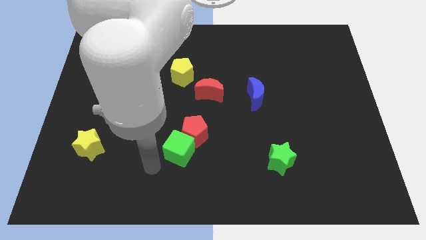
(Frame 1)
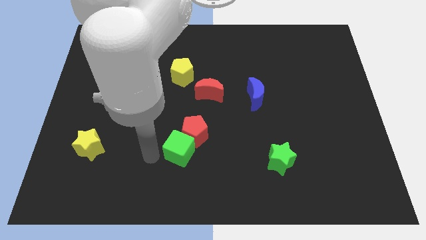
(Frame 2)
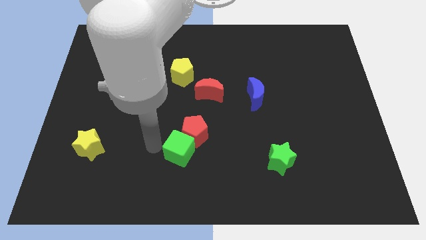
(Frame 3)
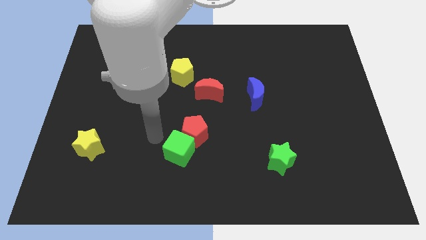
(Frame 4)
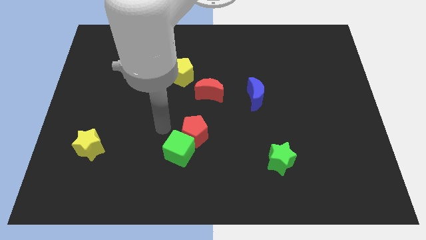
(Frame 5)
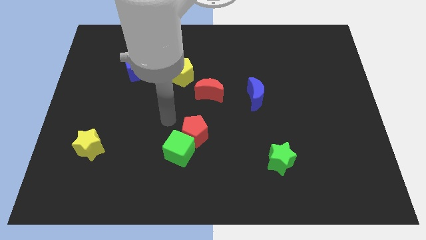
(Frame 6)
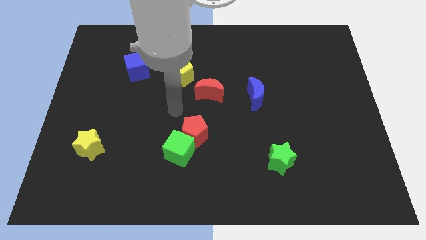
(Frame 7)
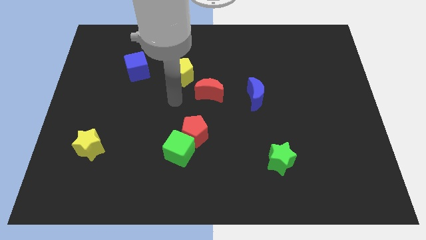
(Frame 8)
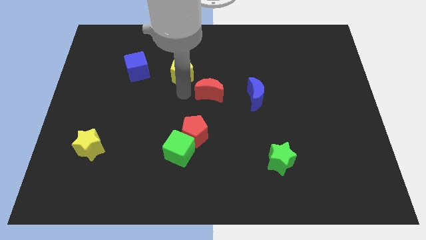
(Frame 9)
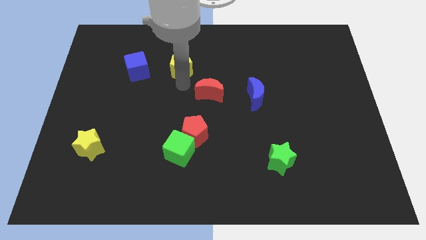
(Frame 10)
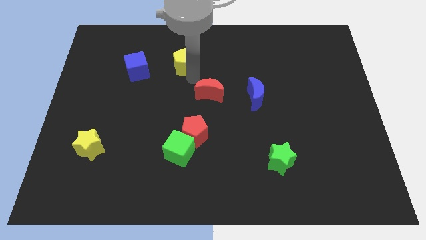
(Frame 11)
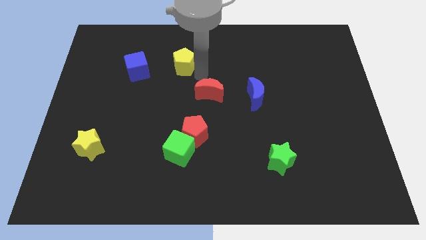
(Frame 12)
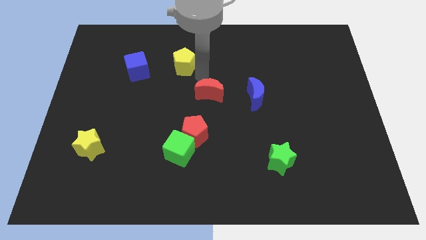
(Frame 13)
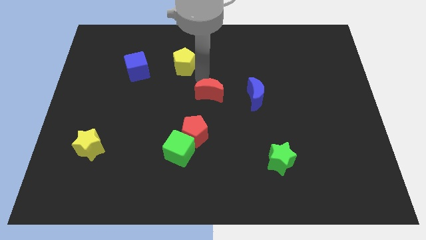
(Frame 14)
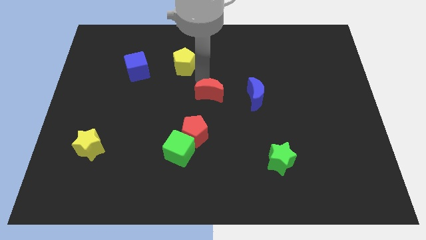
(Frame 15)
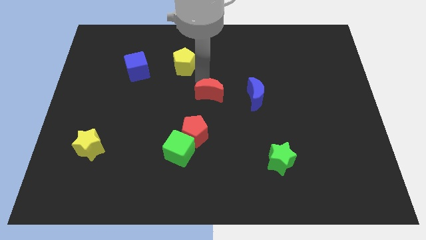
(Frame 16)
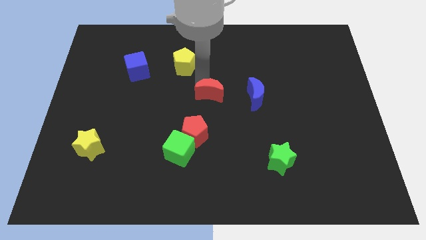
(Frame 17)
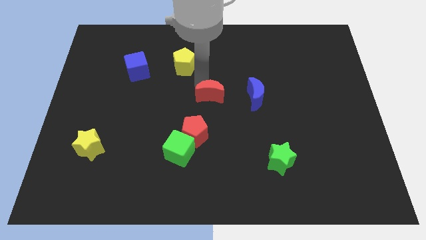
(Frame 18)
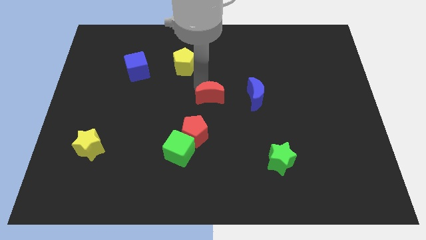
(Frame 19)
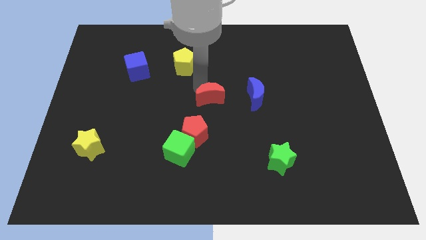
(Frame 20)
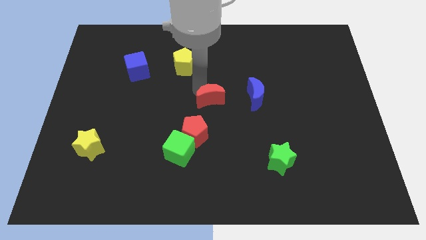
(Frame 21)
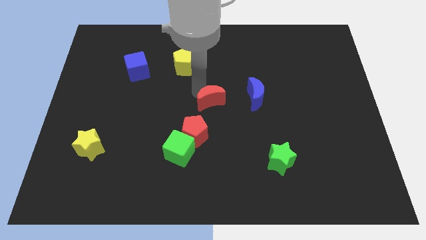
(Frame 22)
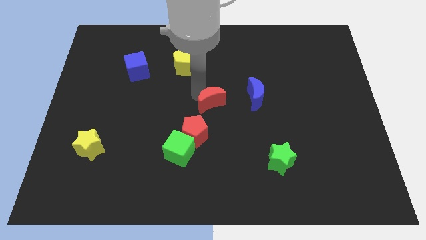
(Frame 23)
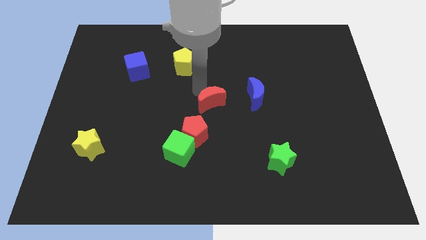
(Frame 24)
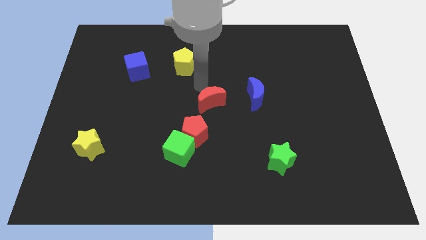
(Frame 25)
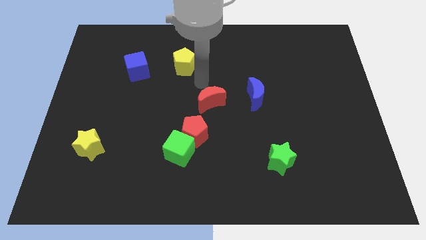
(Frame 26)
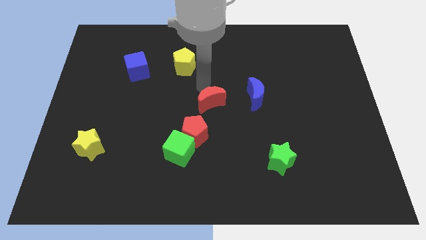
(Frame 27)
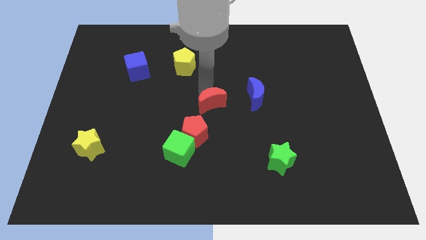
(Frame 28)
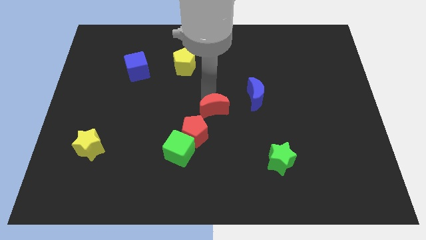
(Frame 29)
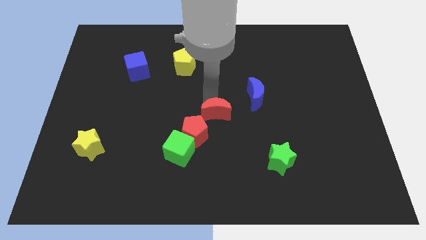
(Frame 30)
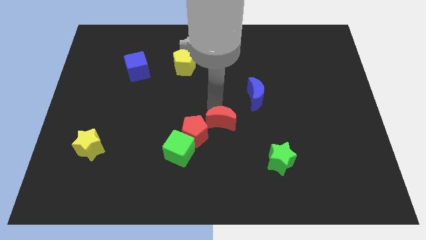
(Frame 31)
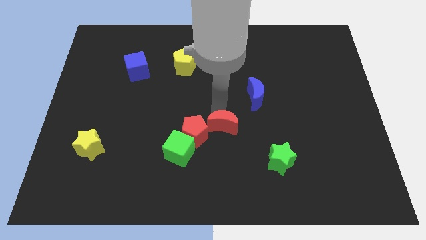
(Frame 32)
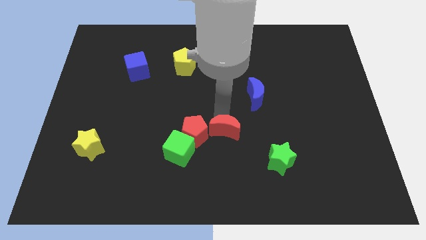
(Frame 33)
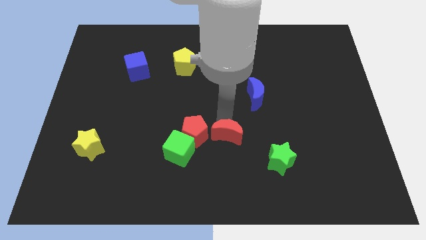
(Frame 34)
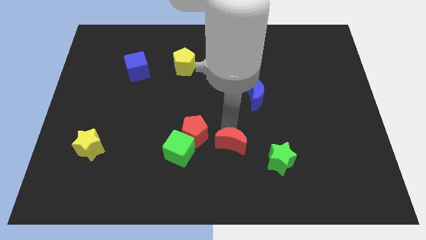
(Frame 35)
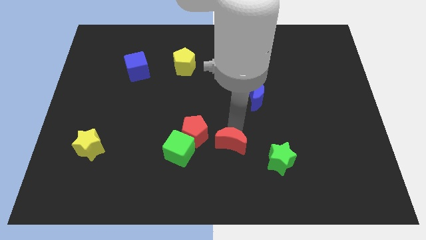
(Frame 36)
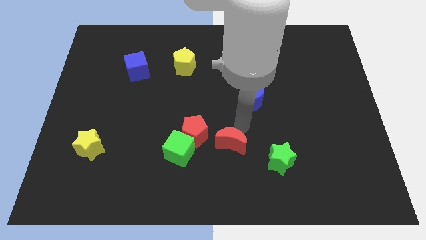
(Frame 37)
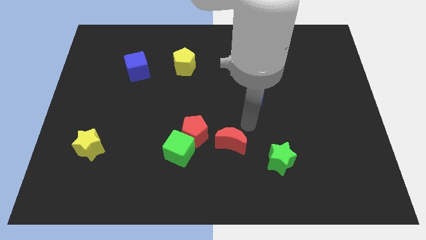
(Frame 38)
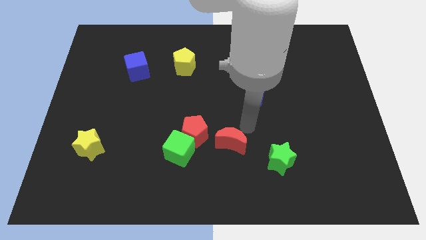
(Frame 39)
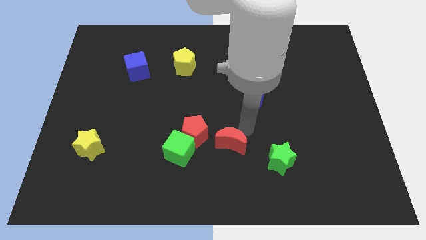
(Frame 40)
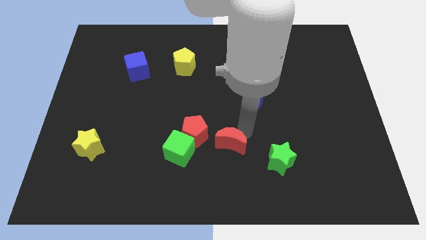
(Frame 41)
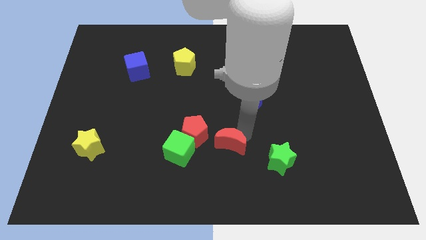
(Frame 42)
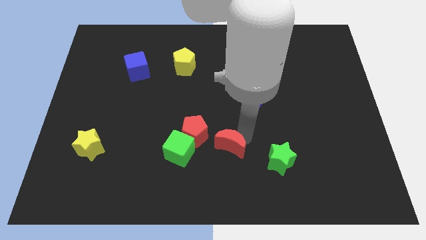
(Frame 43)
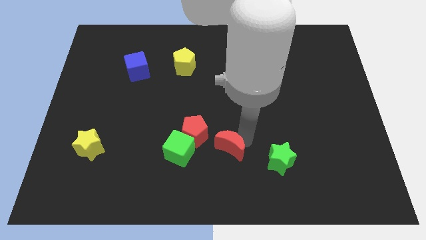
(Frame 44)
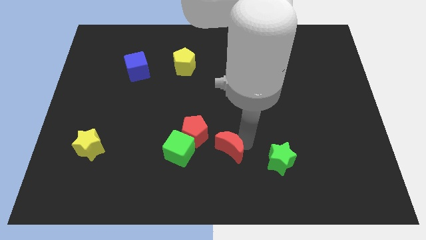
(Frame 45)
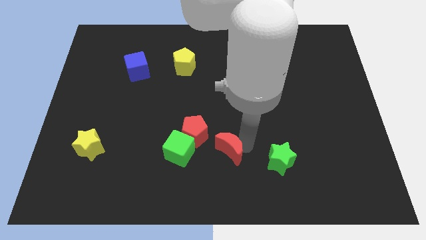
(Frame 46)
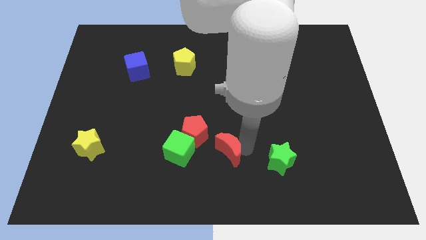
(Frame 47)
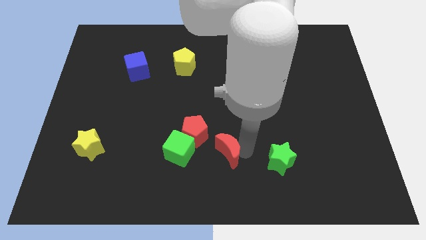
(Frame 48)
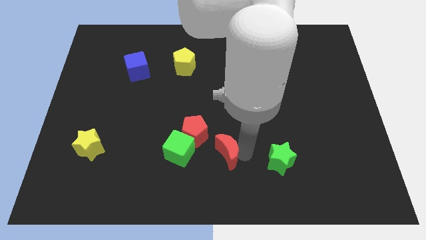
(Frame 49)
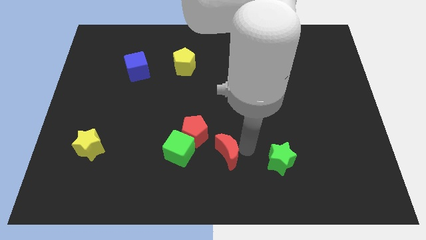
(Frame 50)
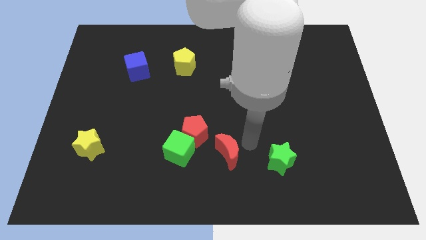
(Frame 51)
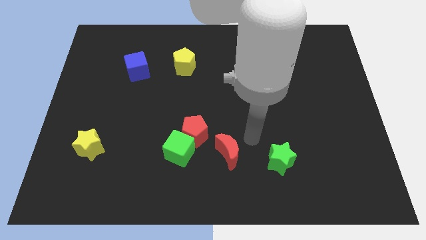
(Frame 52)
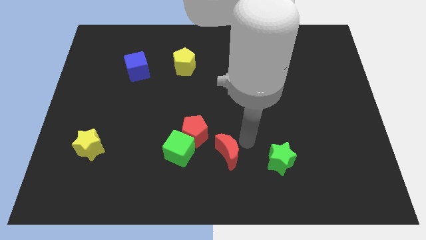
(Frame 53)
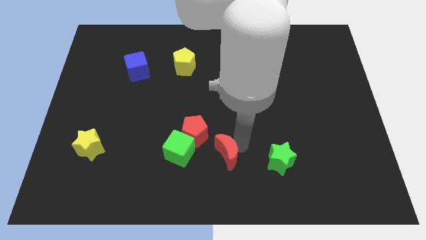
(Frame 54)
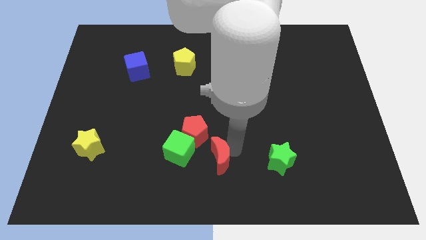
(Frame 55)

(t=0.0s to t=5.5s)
move the red moon to the bottom side

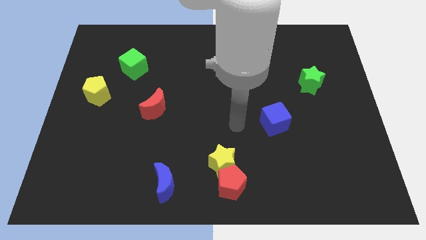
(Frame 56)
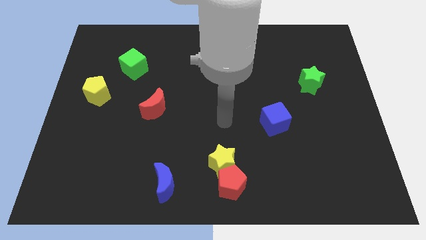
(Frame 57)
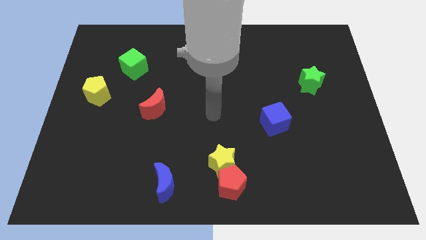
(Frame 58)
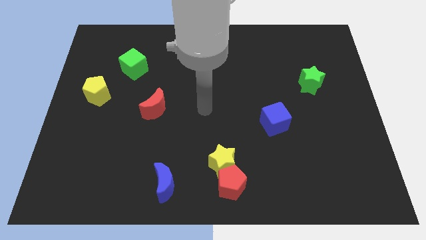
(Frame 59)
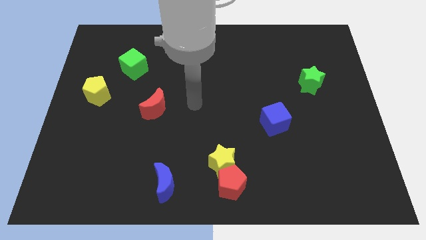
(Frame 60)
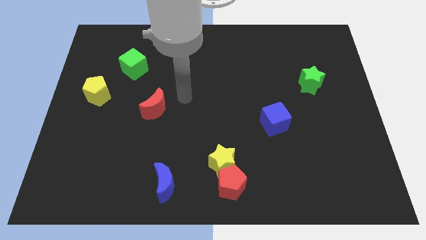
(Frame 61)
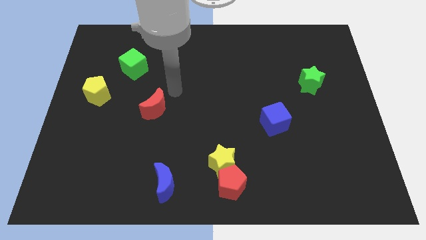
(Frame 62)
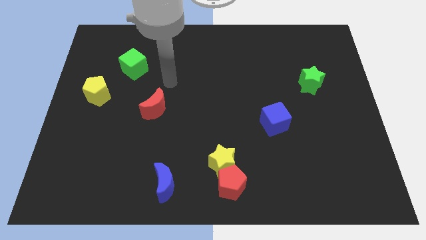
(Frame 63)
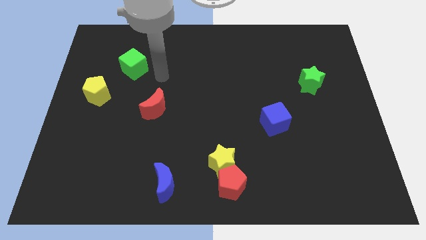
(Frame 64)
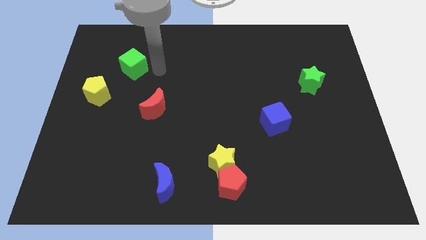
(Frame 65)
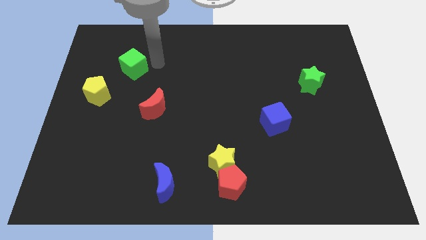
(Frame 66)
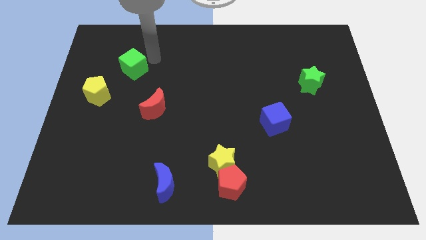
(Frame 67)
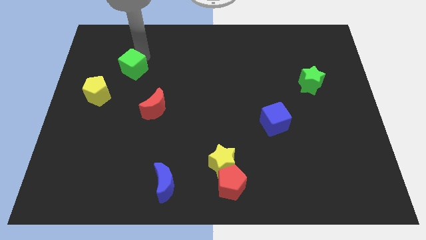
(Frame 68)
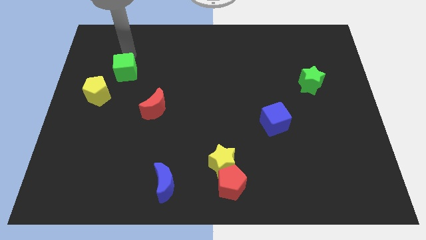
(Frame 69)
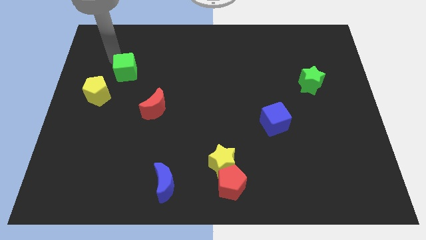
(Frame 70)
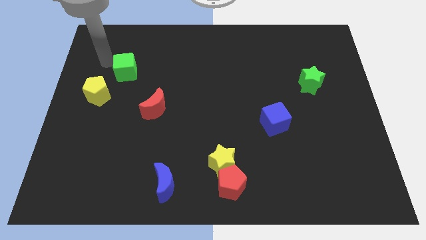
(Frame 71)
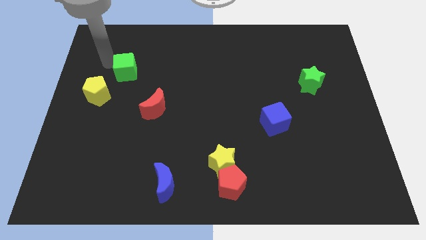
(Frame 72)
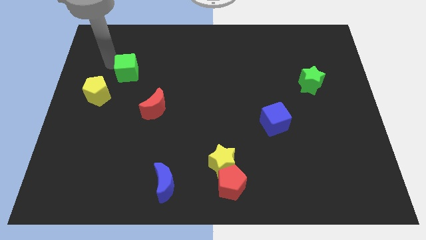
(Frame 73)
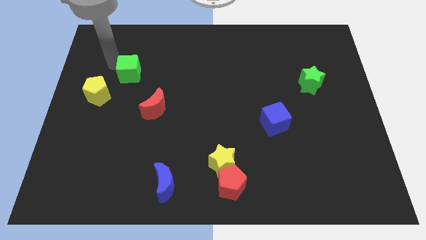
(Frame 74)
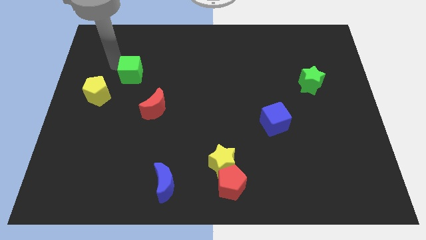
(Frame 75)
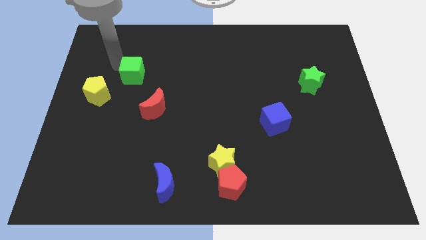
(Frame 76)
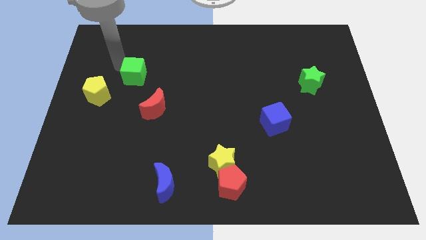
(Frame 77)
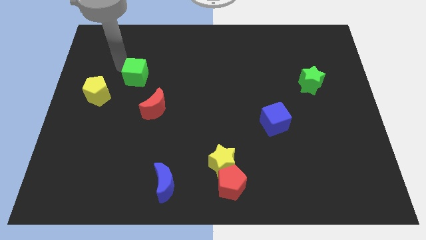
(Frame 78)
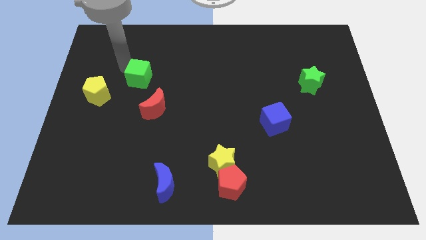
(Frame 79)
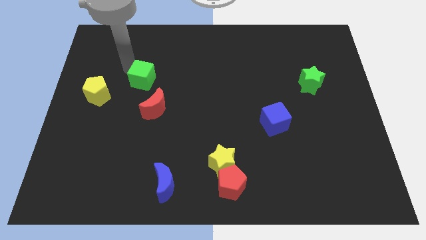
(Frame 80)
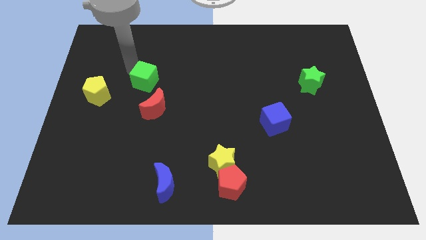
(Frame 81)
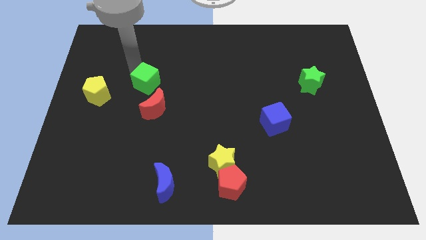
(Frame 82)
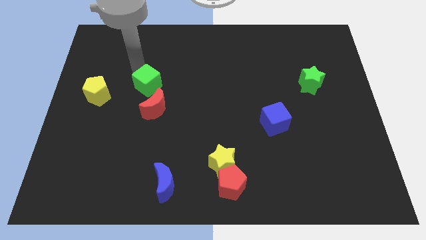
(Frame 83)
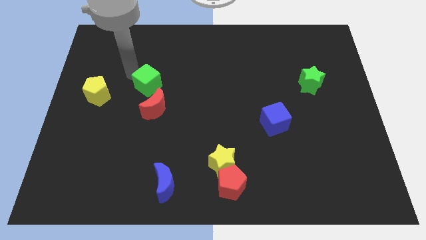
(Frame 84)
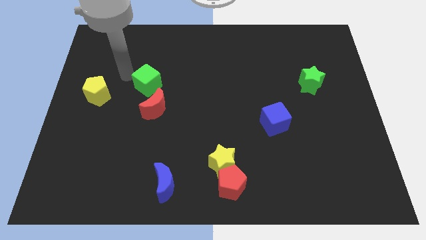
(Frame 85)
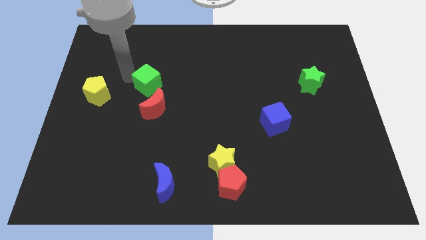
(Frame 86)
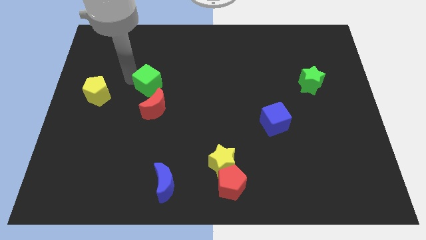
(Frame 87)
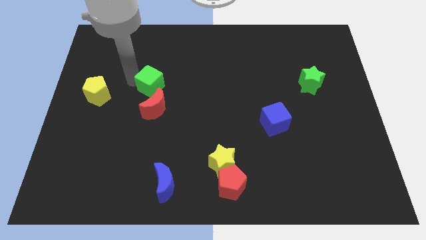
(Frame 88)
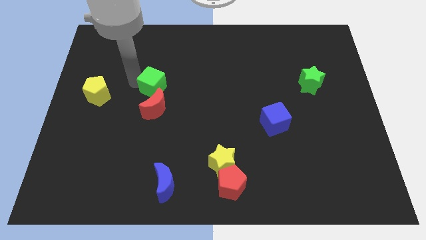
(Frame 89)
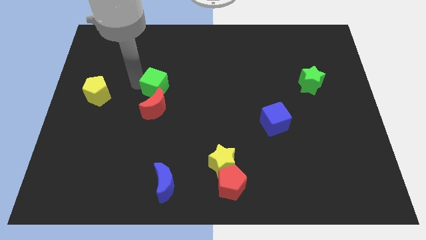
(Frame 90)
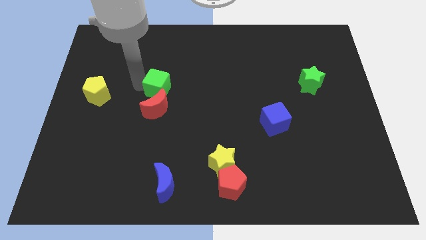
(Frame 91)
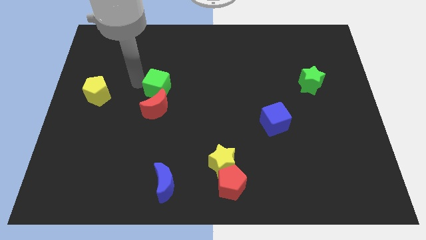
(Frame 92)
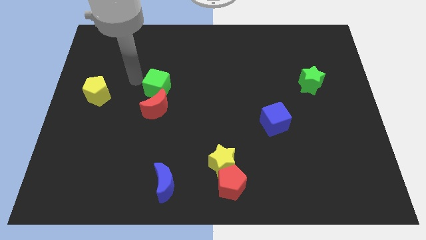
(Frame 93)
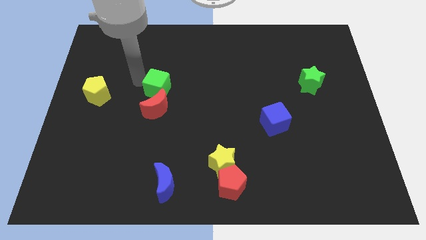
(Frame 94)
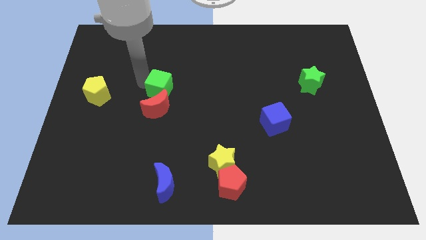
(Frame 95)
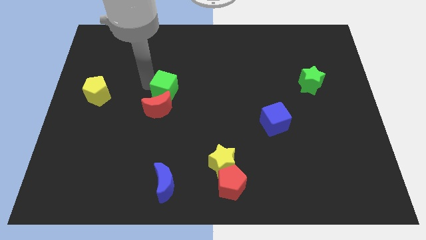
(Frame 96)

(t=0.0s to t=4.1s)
slide the green cube to the middle
